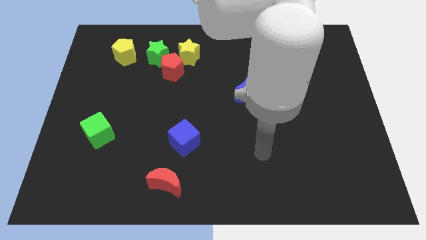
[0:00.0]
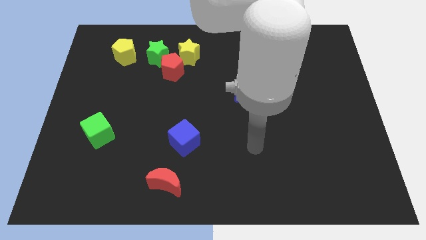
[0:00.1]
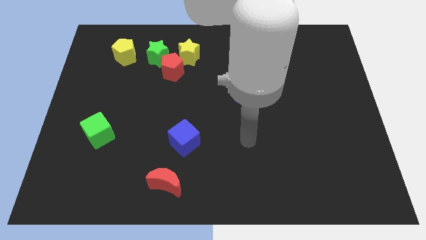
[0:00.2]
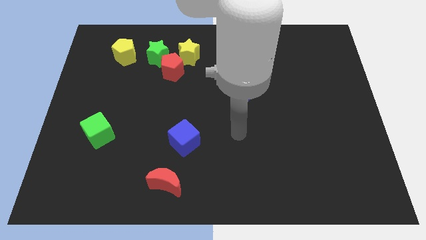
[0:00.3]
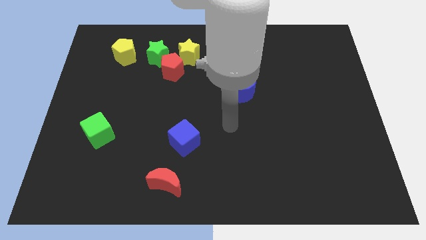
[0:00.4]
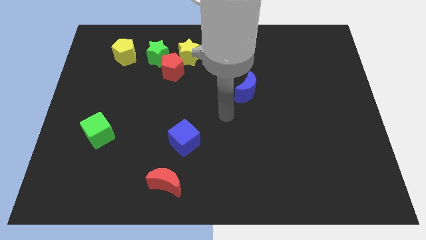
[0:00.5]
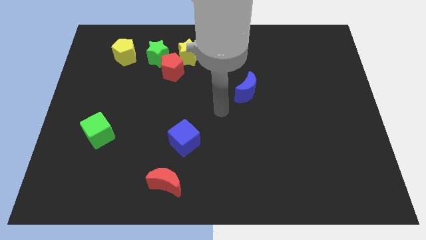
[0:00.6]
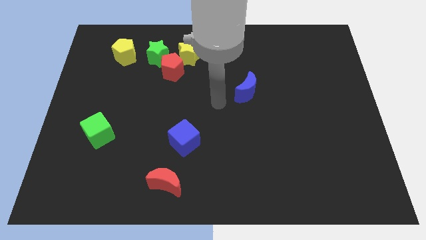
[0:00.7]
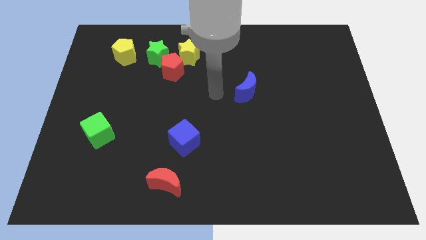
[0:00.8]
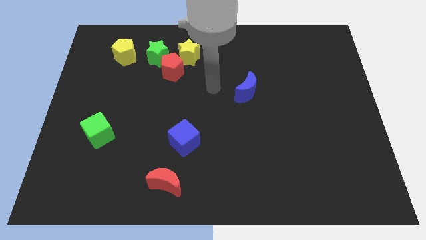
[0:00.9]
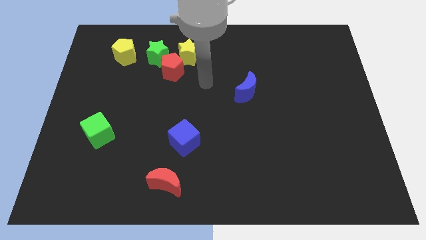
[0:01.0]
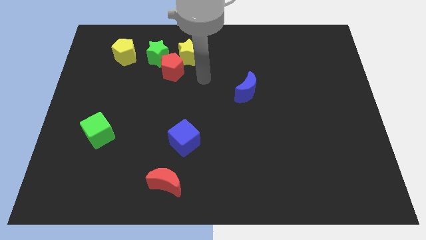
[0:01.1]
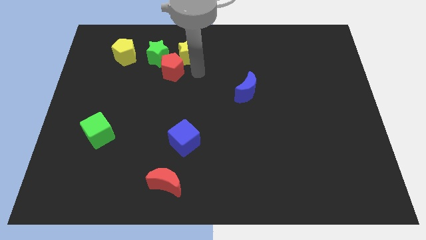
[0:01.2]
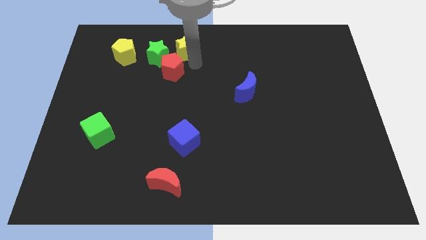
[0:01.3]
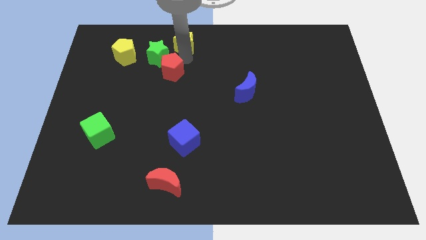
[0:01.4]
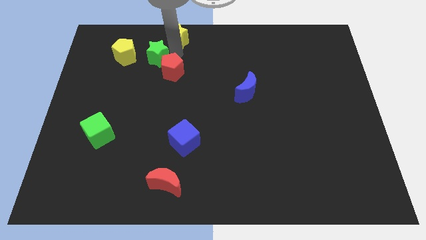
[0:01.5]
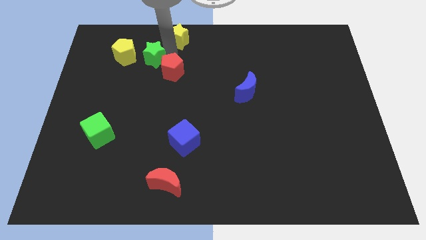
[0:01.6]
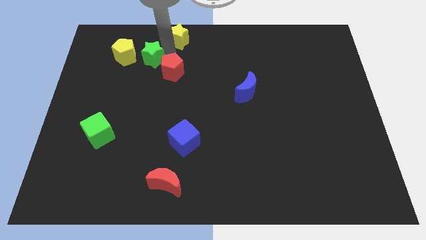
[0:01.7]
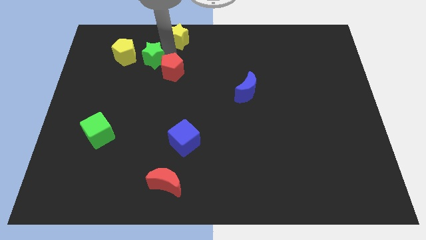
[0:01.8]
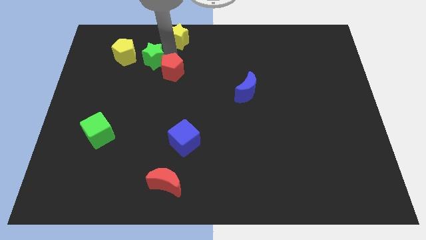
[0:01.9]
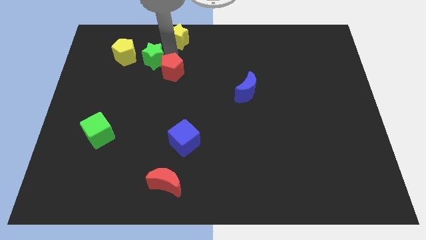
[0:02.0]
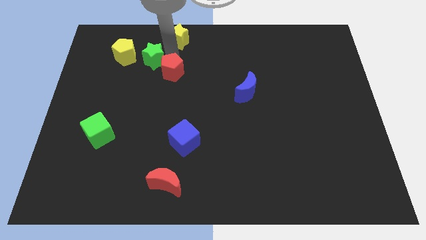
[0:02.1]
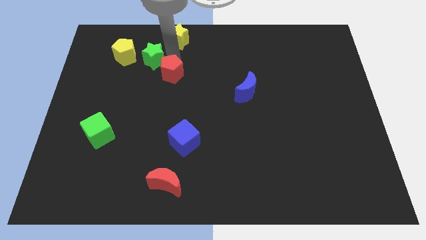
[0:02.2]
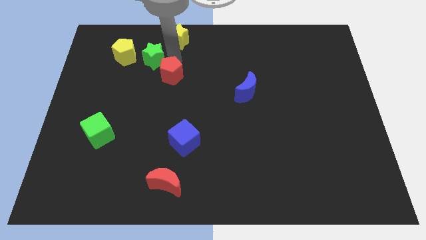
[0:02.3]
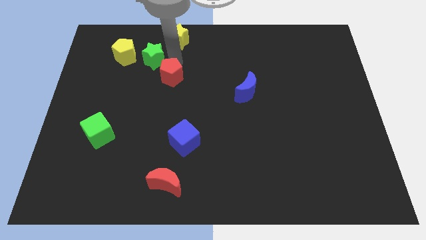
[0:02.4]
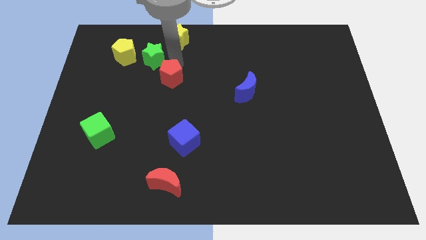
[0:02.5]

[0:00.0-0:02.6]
separate the red pentagon from the yellow star and green star

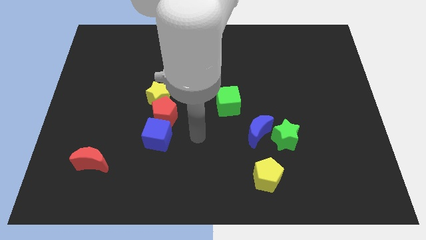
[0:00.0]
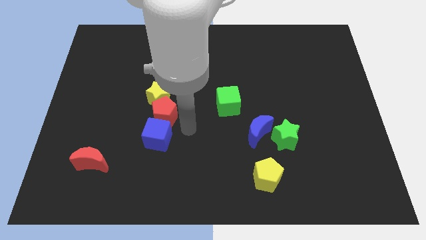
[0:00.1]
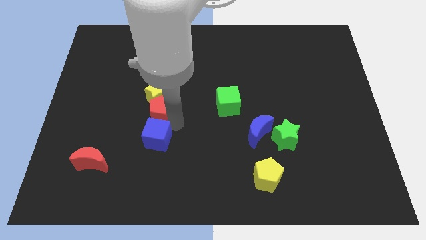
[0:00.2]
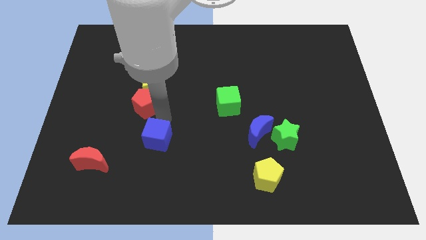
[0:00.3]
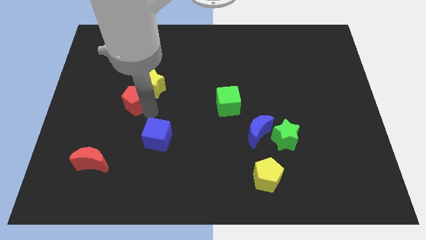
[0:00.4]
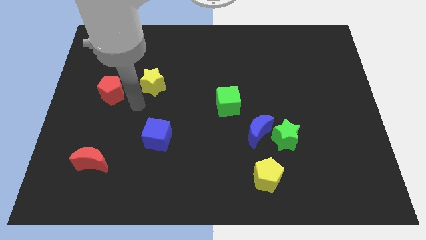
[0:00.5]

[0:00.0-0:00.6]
separate the yellow star from the red pentagon

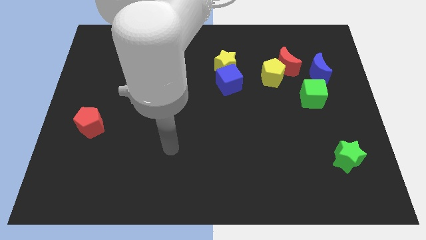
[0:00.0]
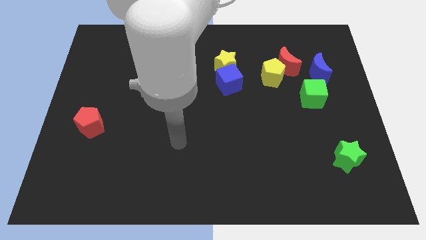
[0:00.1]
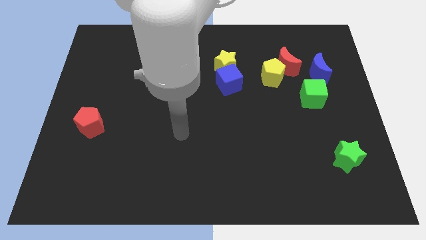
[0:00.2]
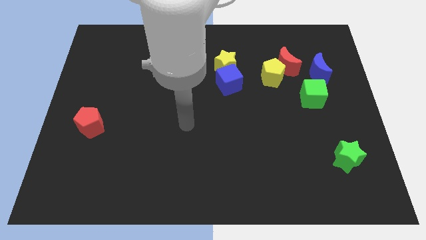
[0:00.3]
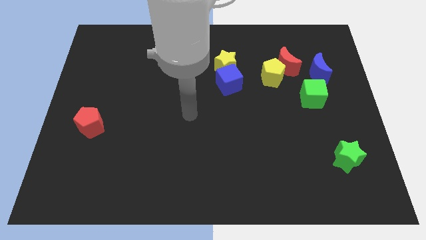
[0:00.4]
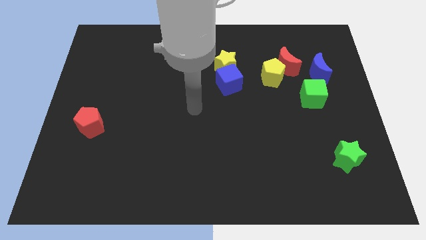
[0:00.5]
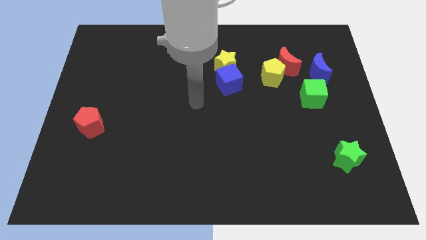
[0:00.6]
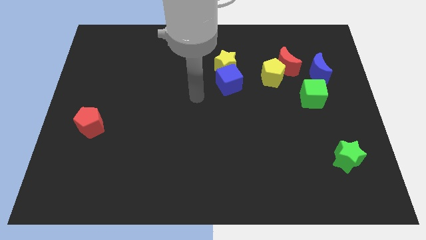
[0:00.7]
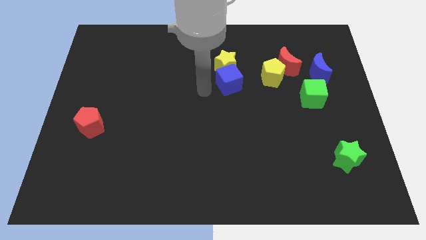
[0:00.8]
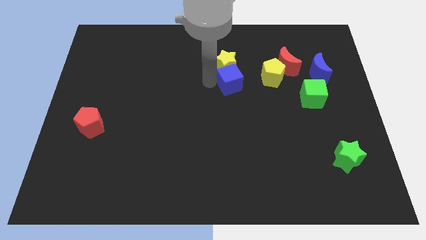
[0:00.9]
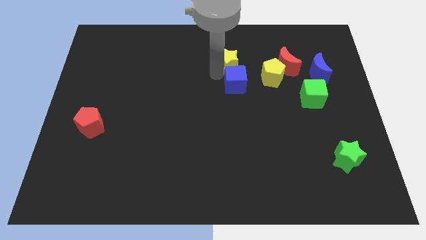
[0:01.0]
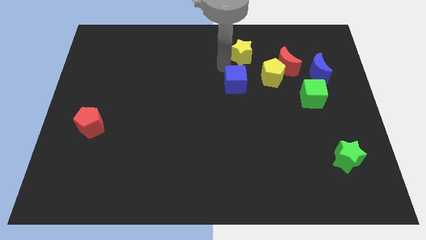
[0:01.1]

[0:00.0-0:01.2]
move the blue cube away from the yellow star

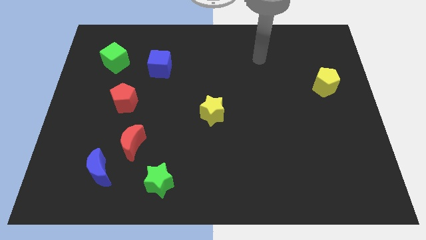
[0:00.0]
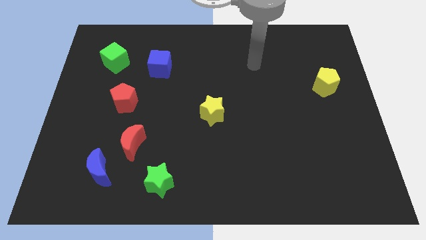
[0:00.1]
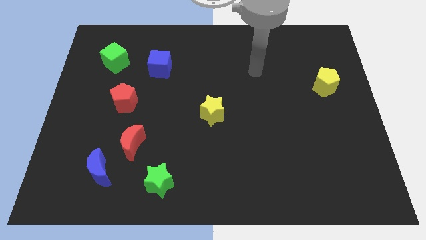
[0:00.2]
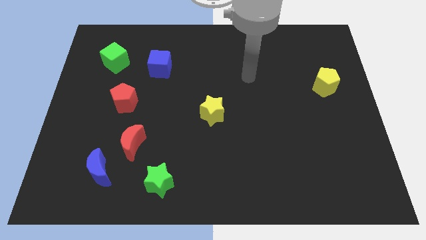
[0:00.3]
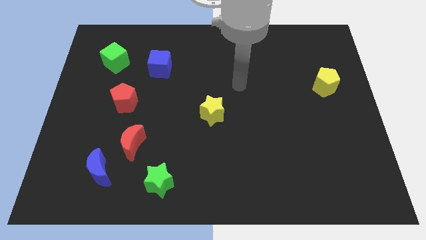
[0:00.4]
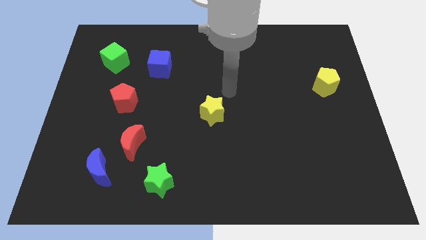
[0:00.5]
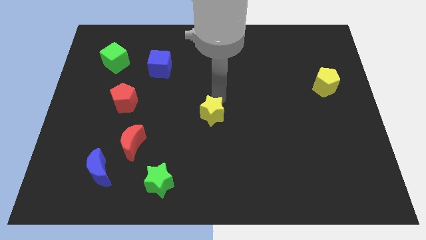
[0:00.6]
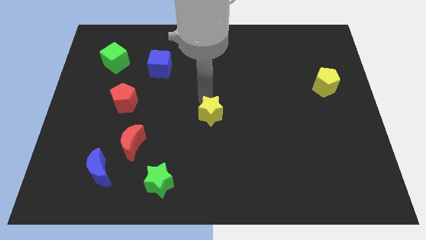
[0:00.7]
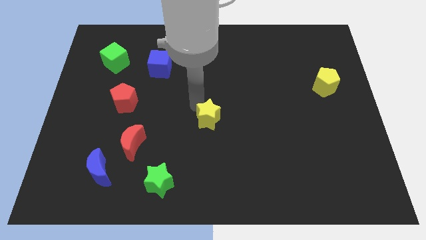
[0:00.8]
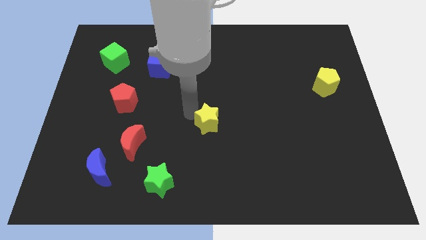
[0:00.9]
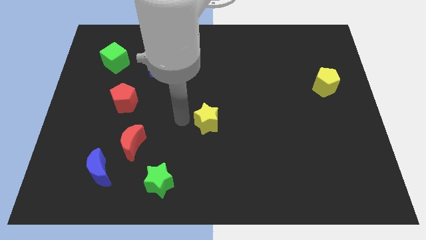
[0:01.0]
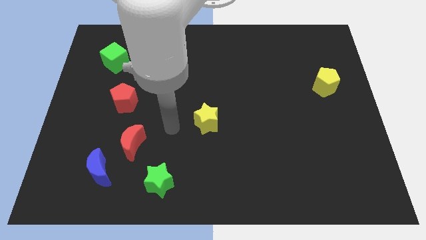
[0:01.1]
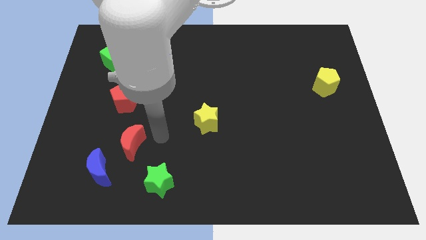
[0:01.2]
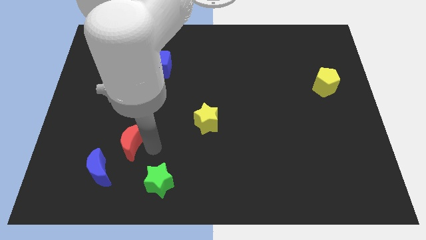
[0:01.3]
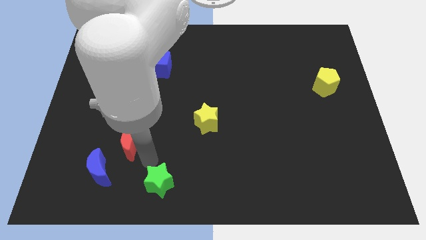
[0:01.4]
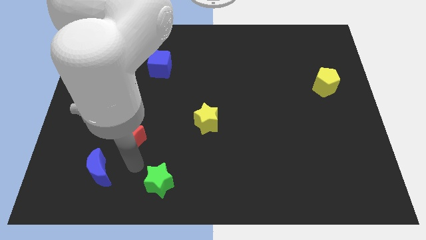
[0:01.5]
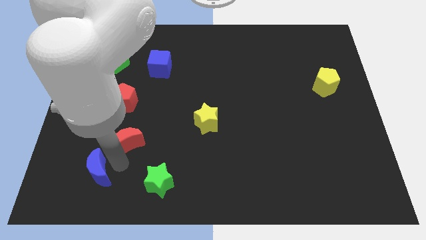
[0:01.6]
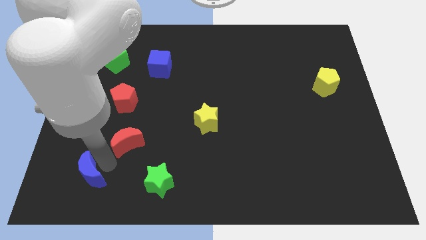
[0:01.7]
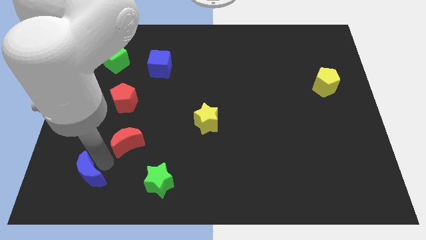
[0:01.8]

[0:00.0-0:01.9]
separate the red moon from the blue moon

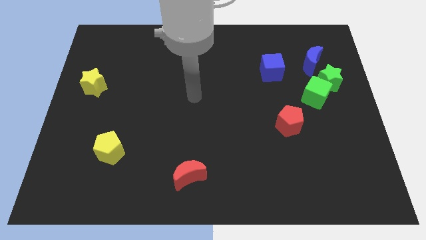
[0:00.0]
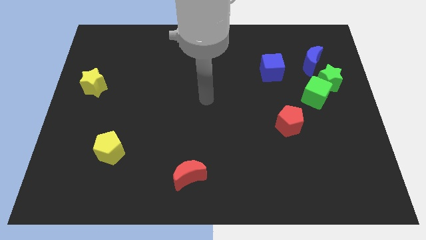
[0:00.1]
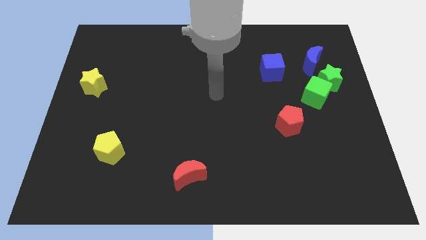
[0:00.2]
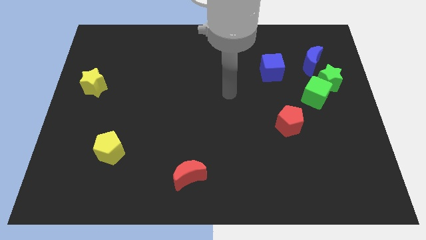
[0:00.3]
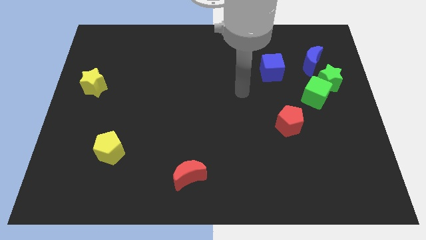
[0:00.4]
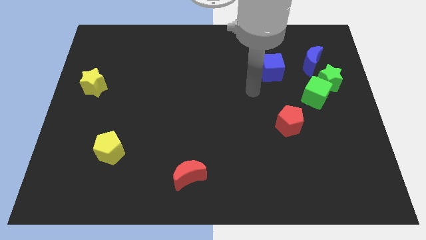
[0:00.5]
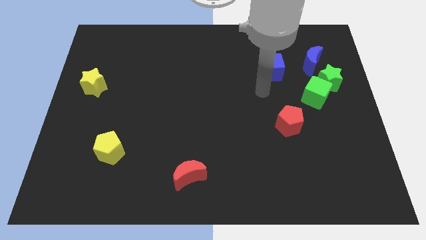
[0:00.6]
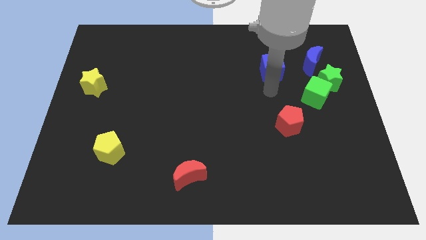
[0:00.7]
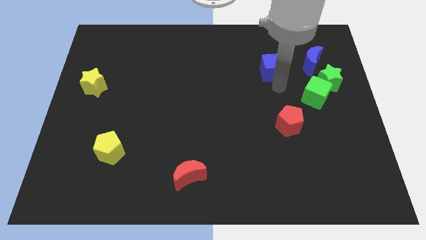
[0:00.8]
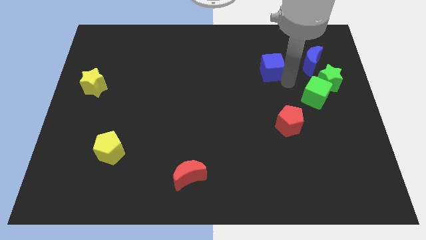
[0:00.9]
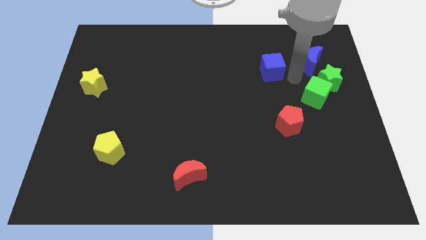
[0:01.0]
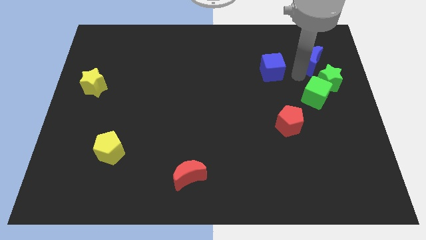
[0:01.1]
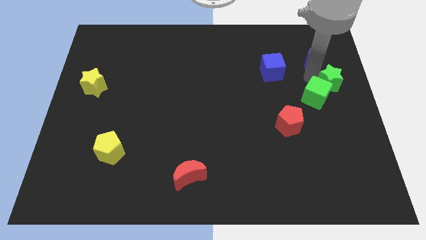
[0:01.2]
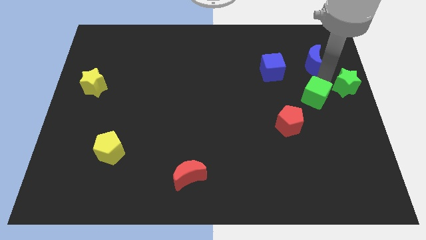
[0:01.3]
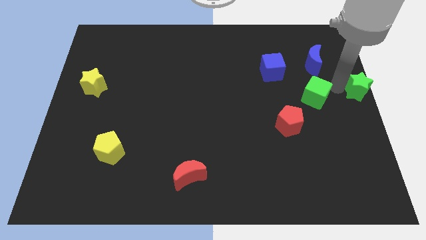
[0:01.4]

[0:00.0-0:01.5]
separate the green cube from the green star

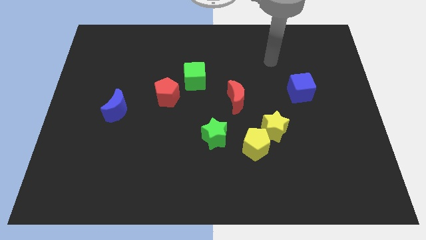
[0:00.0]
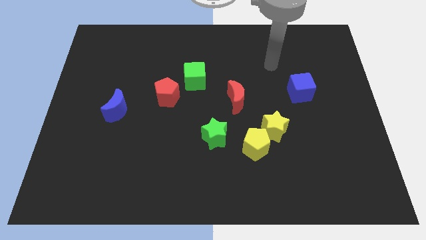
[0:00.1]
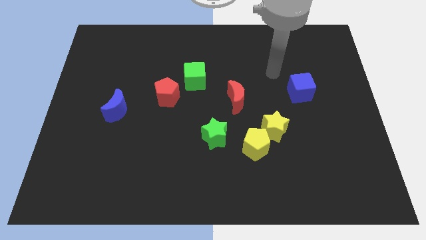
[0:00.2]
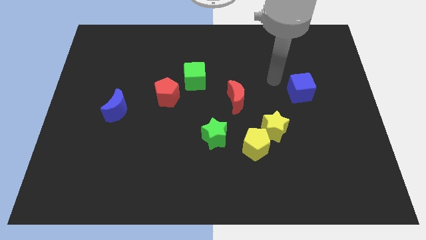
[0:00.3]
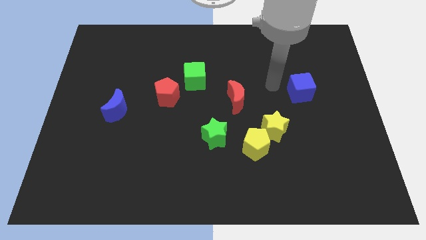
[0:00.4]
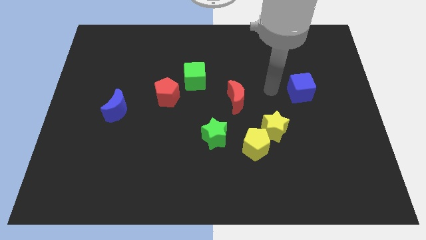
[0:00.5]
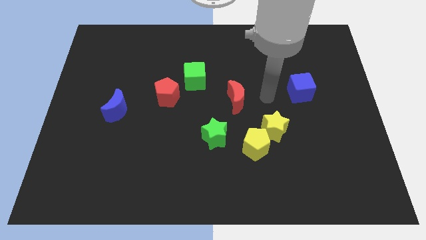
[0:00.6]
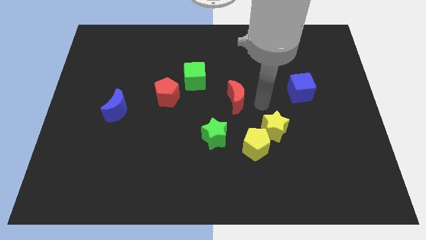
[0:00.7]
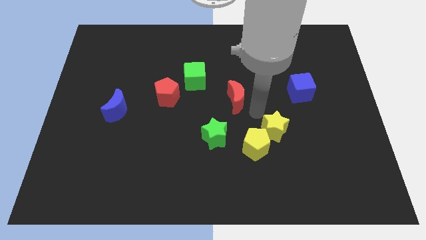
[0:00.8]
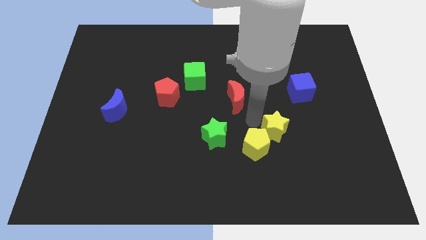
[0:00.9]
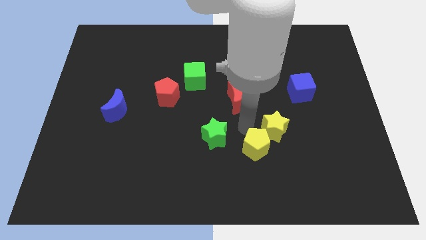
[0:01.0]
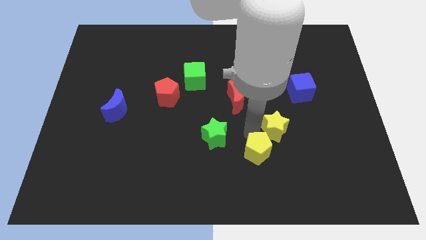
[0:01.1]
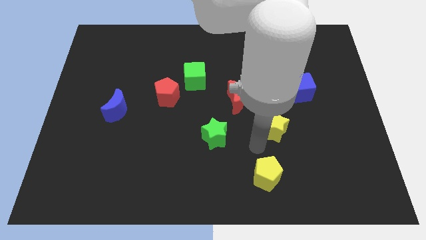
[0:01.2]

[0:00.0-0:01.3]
pull the yellow star apart from the yellow pentagon

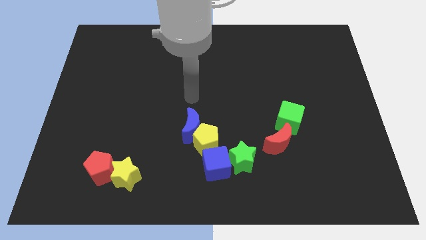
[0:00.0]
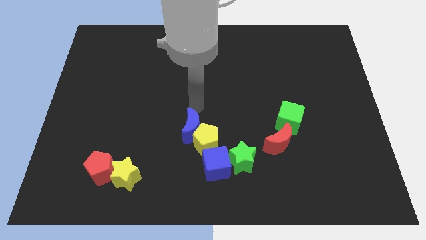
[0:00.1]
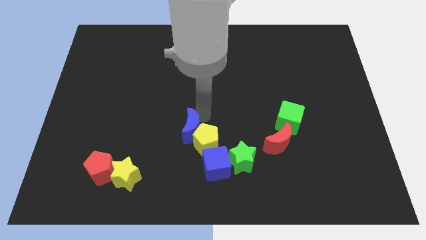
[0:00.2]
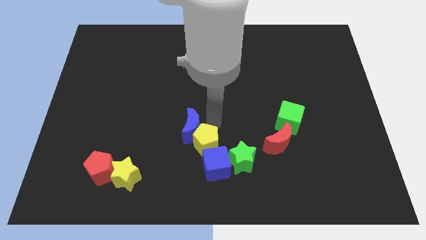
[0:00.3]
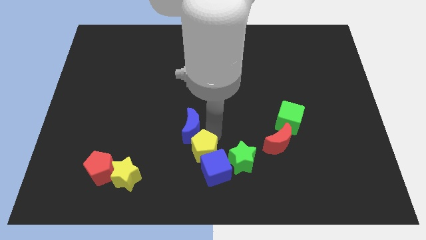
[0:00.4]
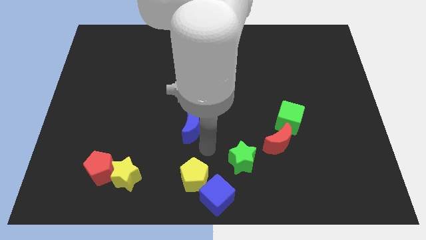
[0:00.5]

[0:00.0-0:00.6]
move the blue moon away from the yellow pentagon
